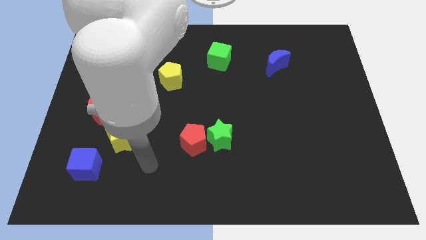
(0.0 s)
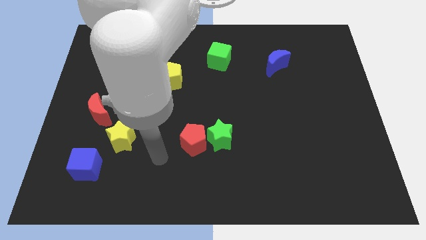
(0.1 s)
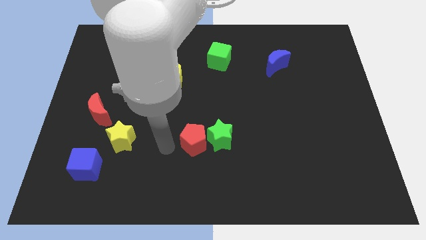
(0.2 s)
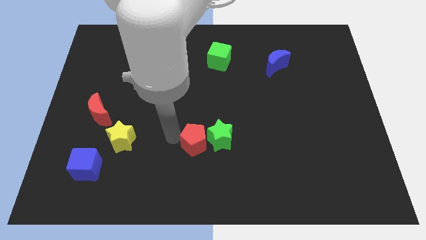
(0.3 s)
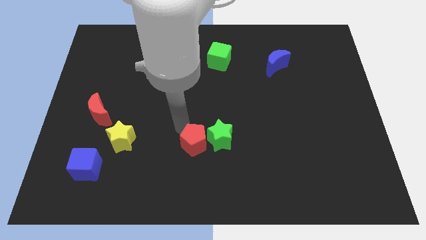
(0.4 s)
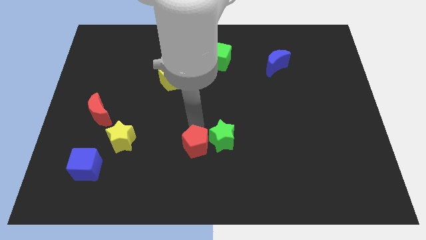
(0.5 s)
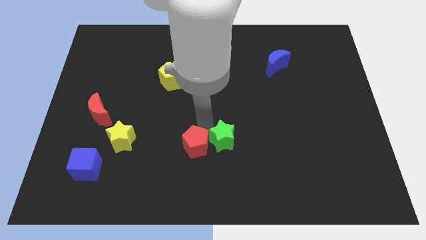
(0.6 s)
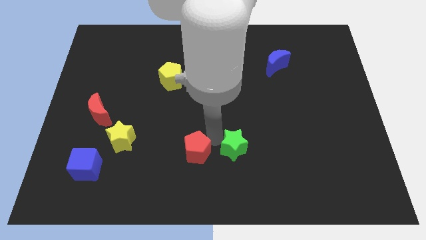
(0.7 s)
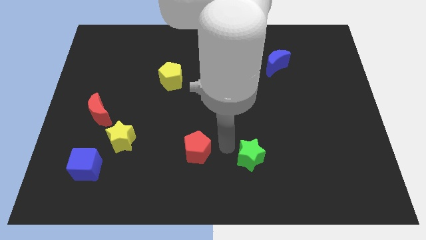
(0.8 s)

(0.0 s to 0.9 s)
move the red pentagon away from the green star

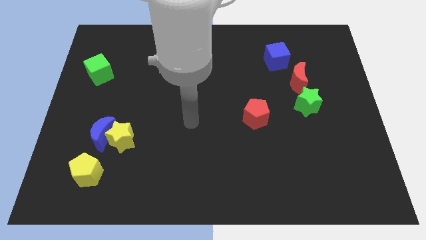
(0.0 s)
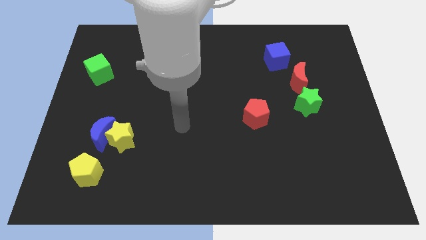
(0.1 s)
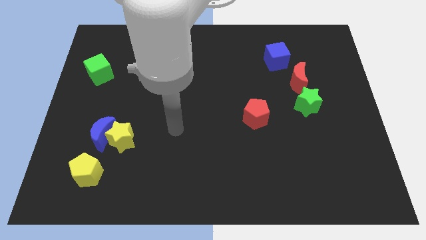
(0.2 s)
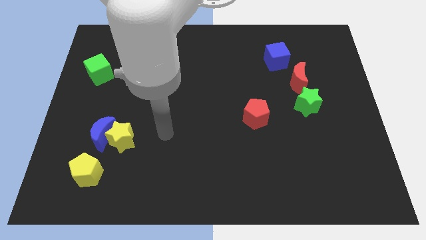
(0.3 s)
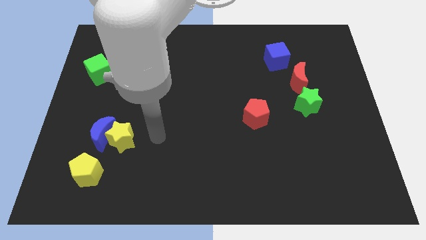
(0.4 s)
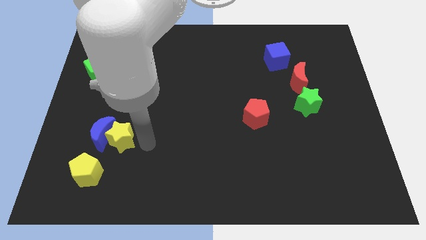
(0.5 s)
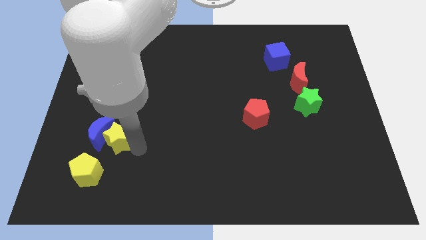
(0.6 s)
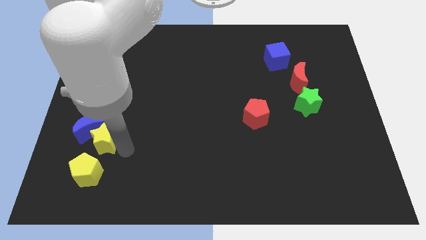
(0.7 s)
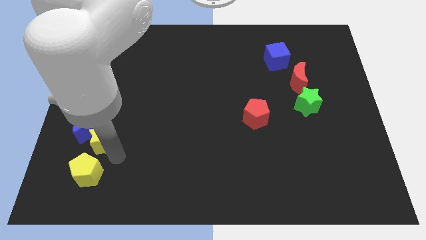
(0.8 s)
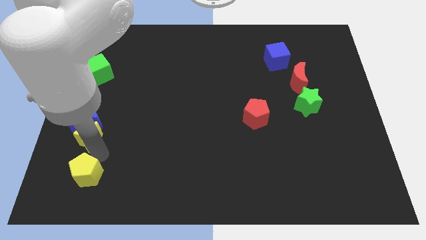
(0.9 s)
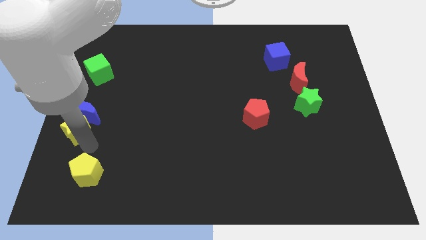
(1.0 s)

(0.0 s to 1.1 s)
move the blue moon away from the yellow star and yellow pentagon

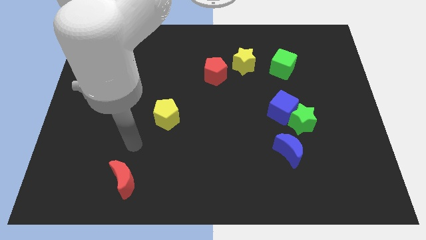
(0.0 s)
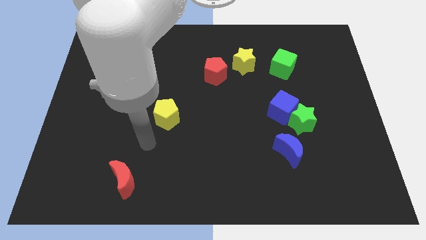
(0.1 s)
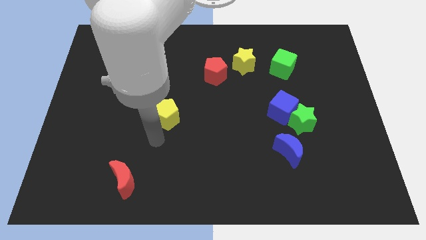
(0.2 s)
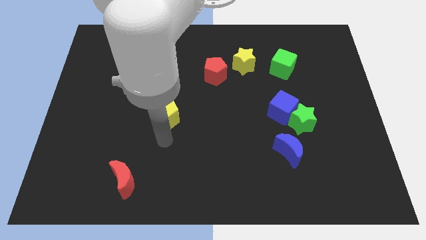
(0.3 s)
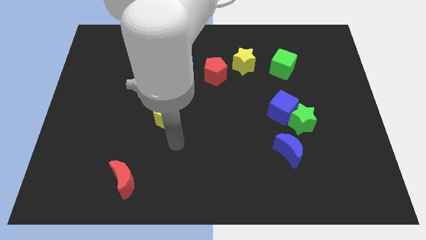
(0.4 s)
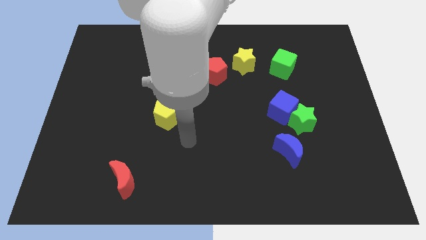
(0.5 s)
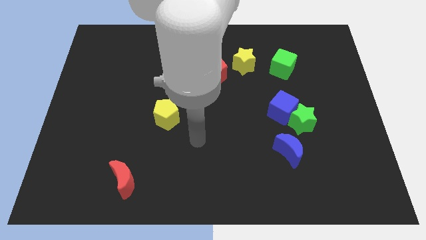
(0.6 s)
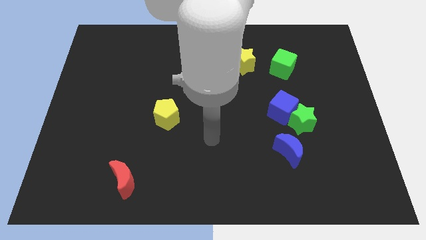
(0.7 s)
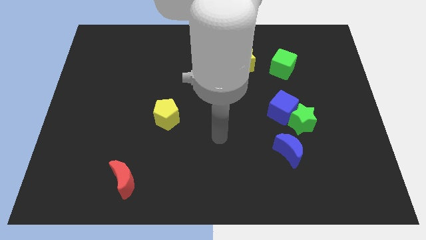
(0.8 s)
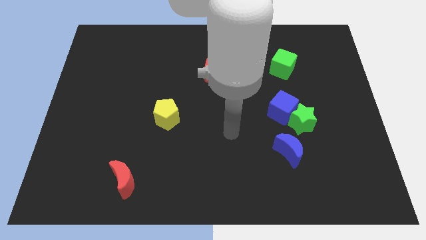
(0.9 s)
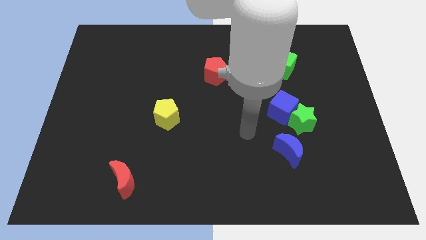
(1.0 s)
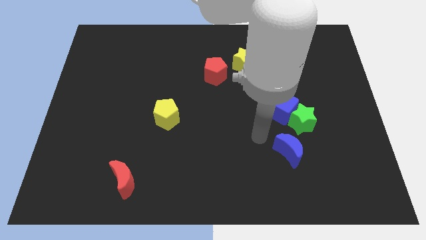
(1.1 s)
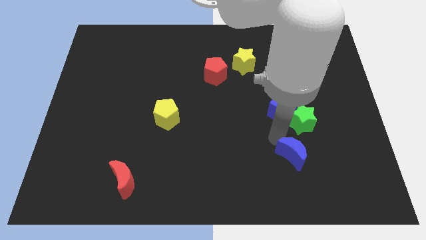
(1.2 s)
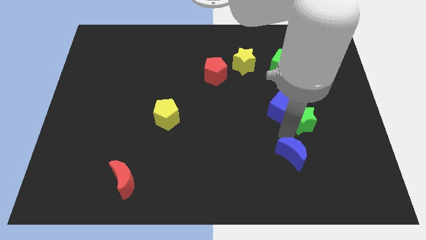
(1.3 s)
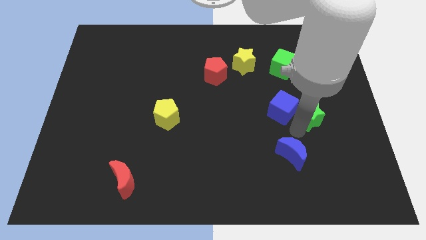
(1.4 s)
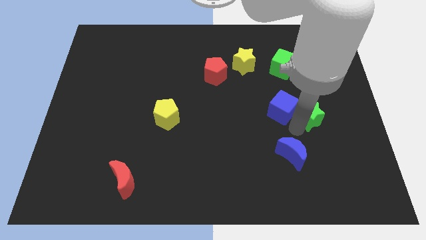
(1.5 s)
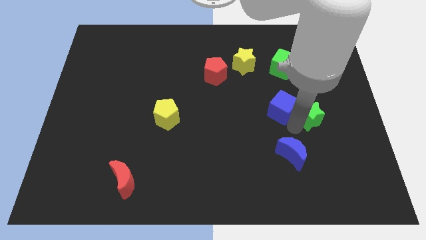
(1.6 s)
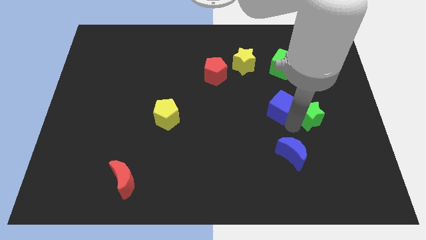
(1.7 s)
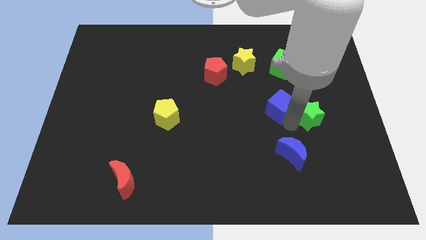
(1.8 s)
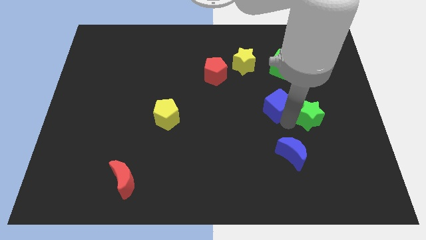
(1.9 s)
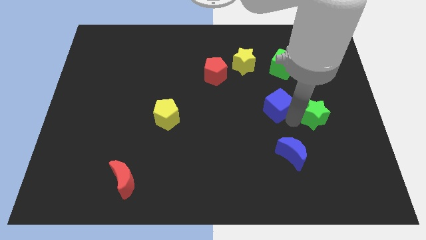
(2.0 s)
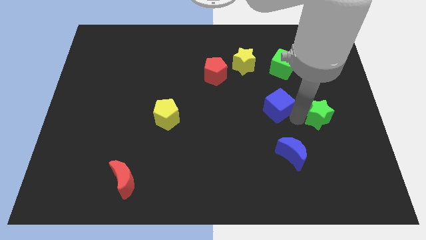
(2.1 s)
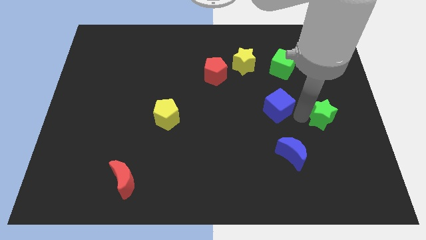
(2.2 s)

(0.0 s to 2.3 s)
pull the blue cube apart from the green star

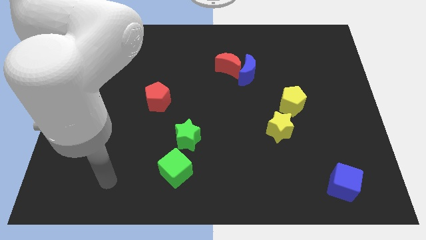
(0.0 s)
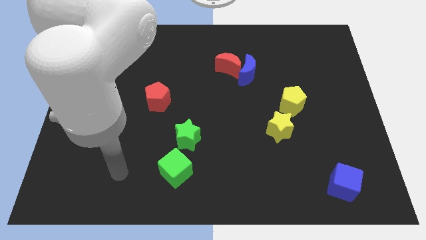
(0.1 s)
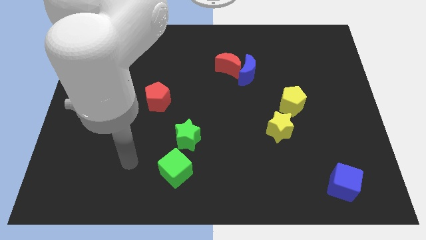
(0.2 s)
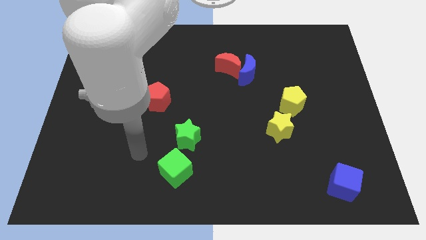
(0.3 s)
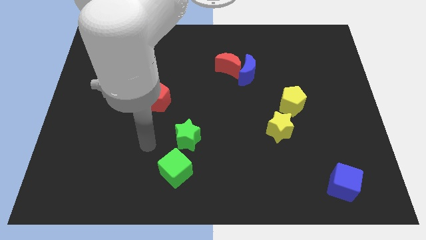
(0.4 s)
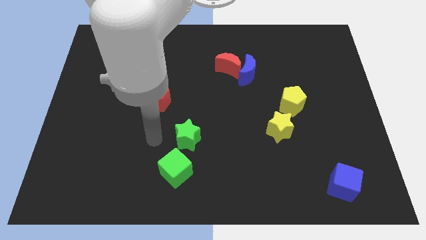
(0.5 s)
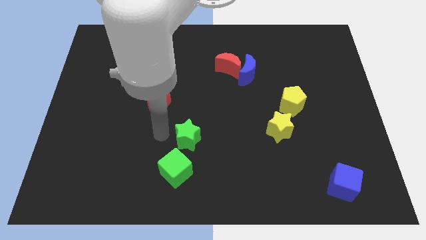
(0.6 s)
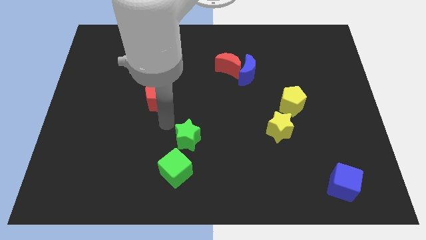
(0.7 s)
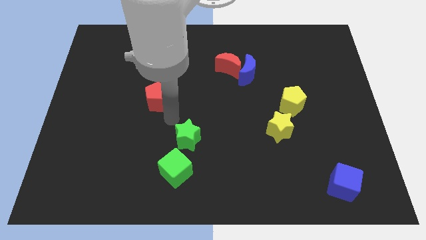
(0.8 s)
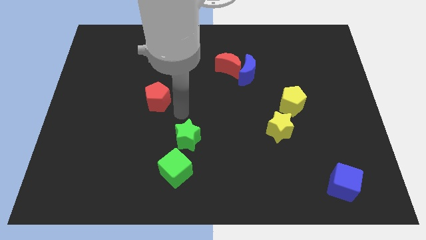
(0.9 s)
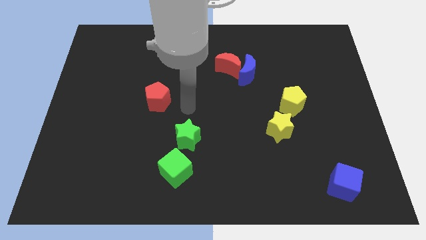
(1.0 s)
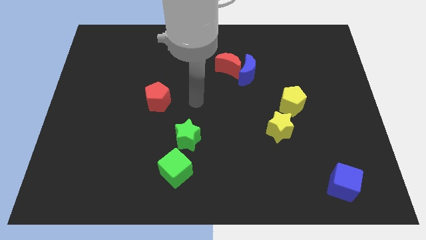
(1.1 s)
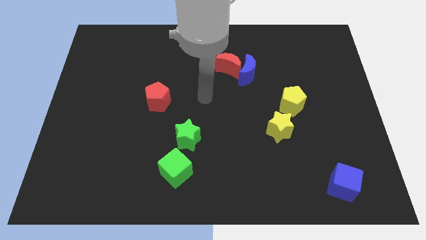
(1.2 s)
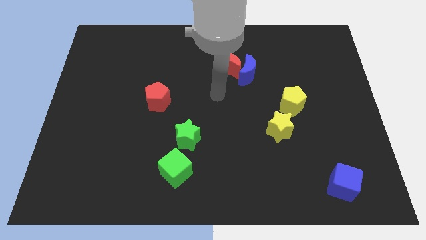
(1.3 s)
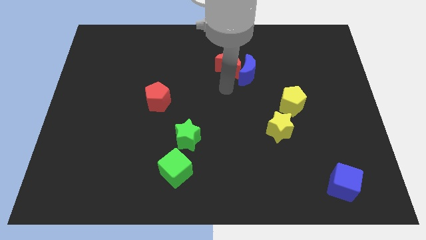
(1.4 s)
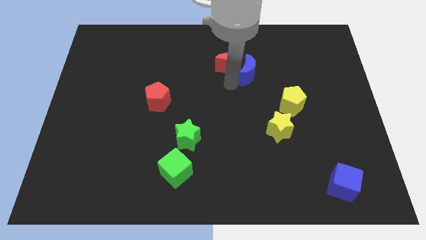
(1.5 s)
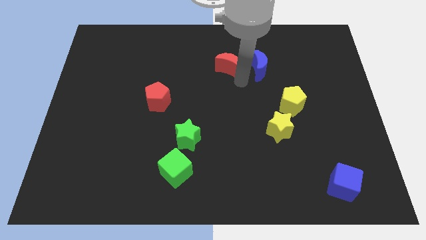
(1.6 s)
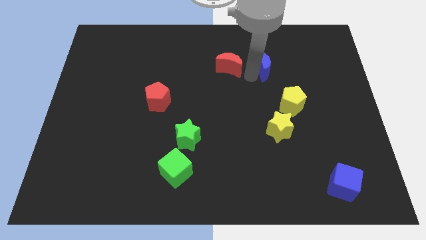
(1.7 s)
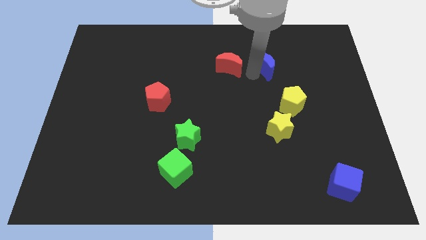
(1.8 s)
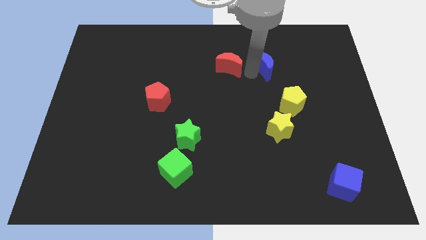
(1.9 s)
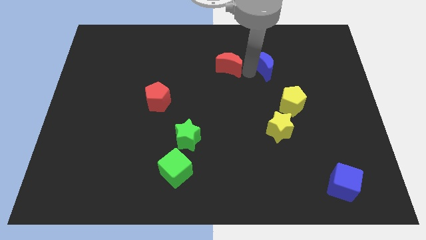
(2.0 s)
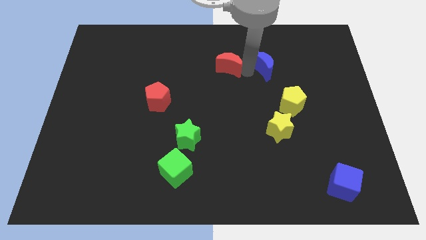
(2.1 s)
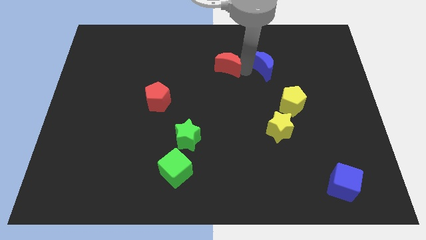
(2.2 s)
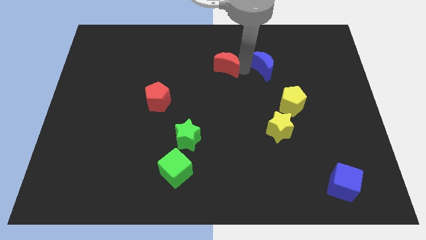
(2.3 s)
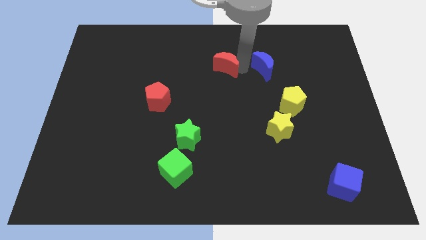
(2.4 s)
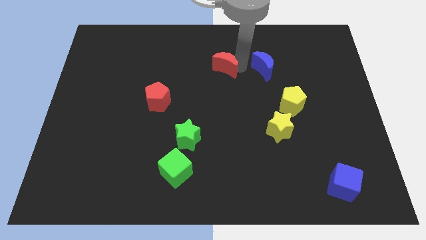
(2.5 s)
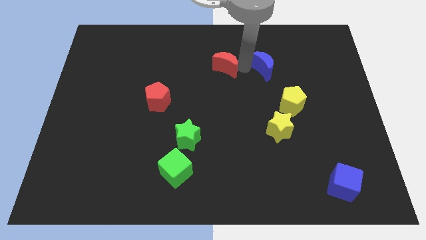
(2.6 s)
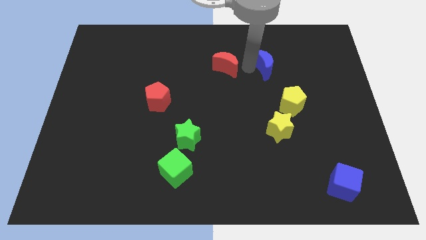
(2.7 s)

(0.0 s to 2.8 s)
move the red moon away from the blue moon

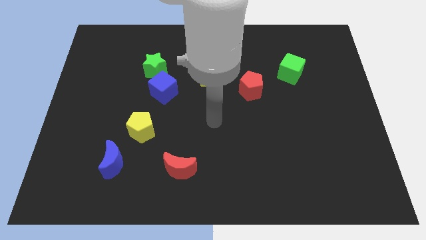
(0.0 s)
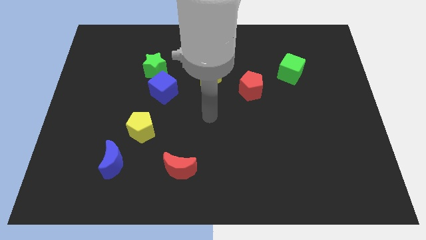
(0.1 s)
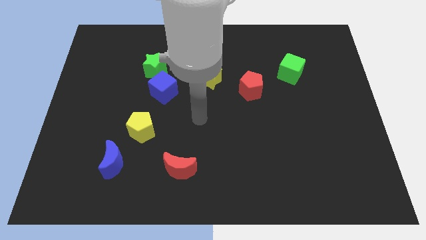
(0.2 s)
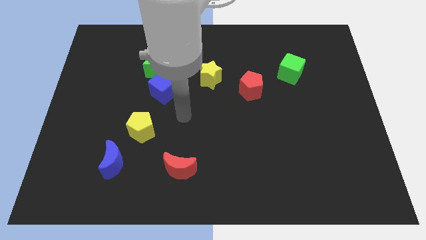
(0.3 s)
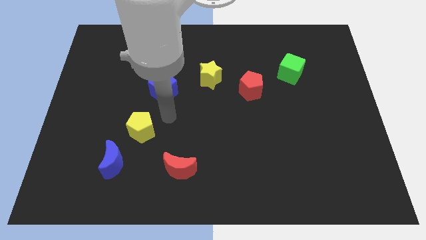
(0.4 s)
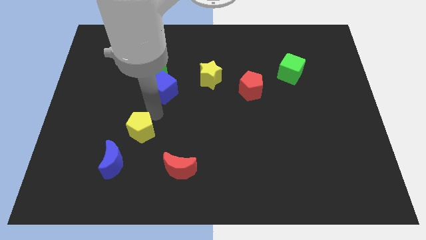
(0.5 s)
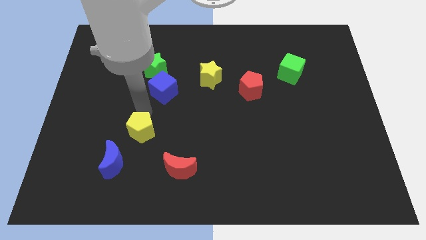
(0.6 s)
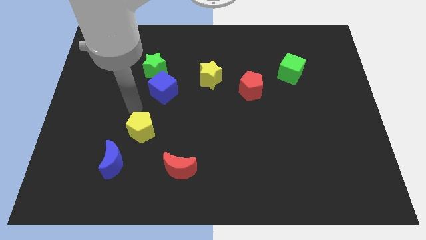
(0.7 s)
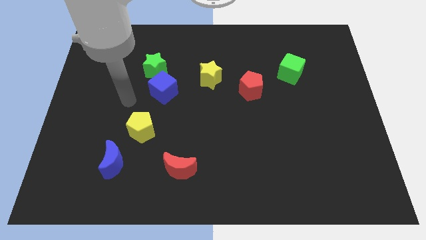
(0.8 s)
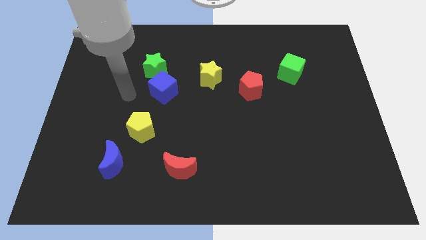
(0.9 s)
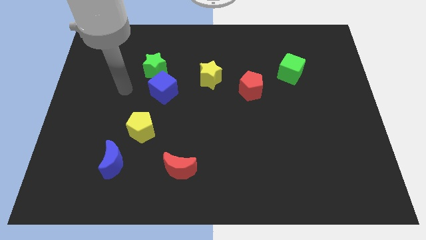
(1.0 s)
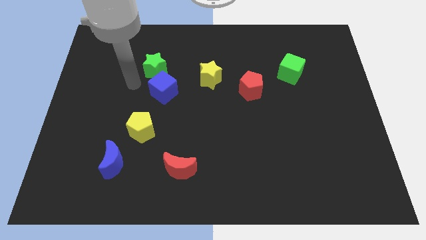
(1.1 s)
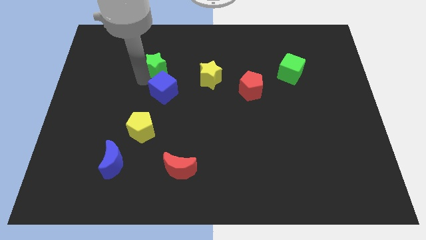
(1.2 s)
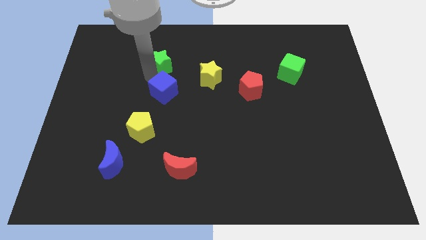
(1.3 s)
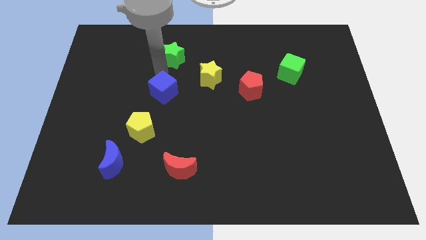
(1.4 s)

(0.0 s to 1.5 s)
separate the blue cube from the green star

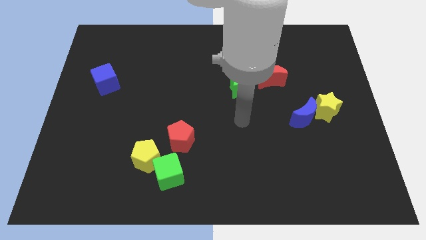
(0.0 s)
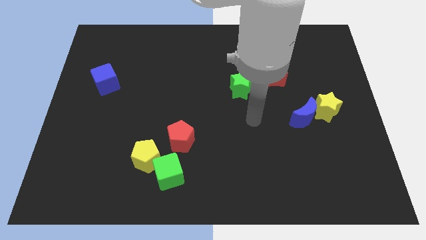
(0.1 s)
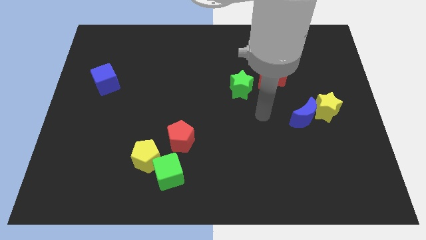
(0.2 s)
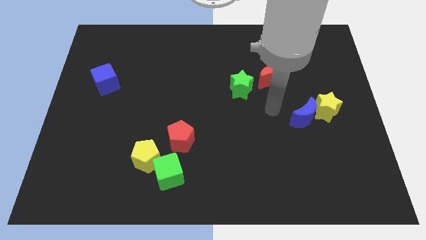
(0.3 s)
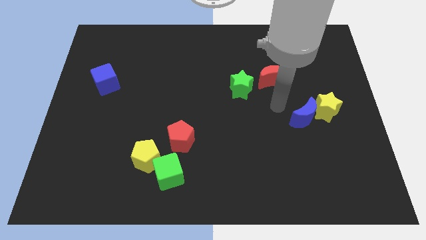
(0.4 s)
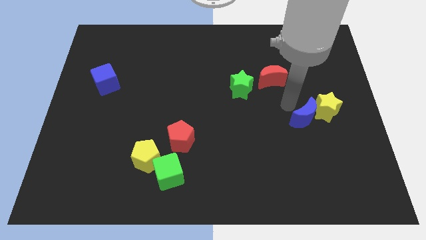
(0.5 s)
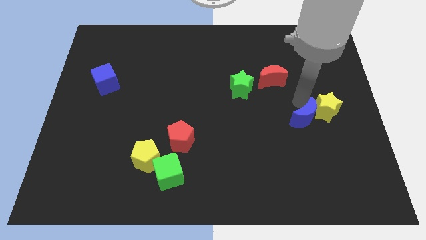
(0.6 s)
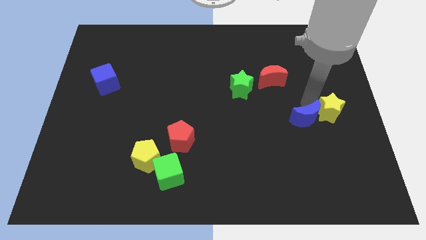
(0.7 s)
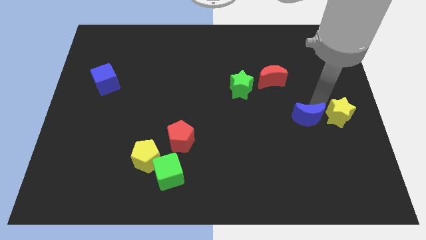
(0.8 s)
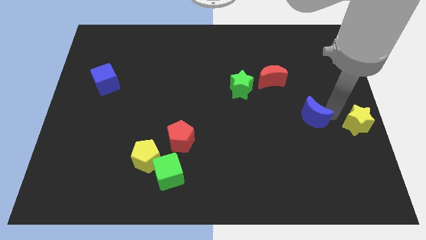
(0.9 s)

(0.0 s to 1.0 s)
separate the blue moon from the yellow star
